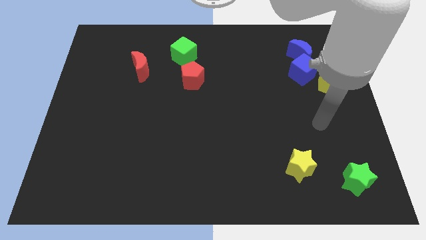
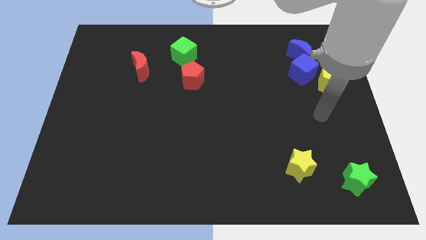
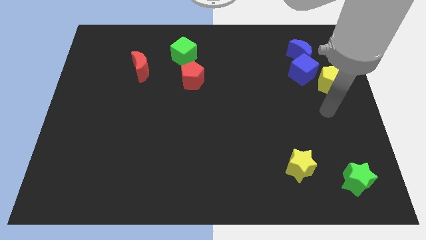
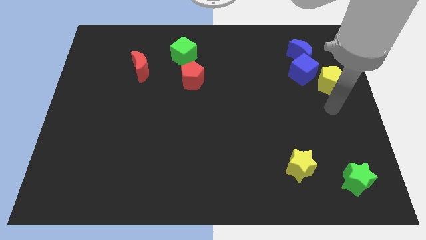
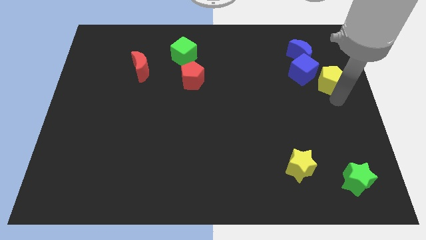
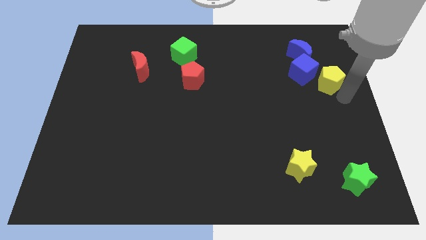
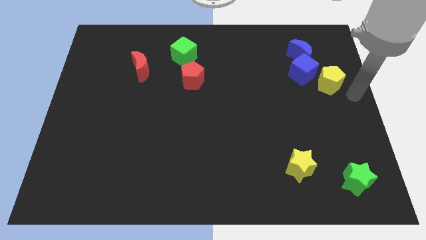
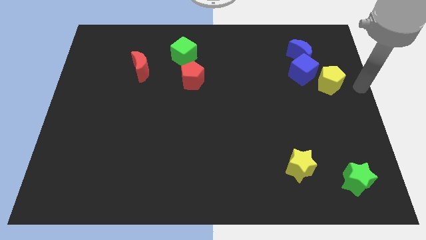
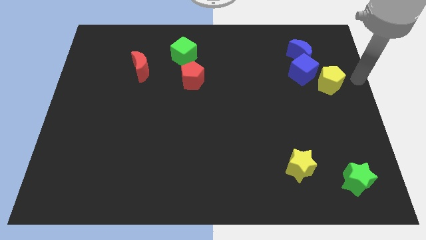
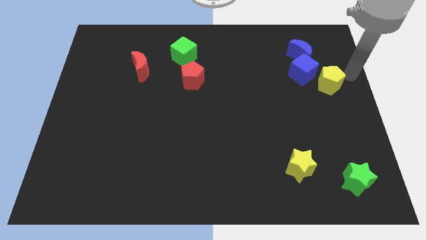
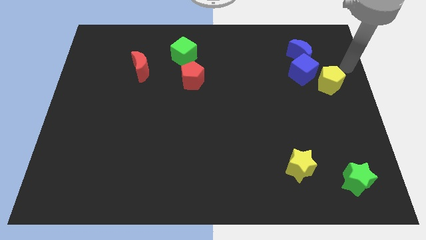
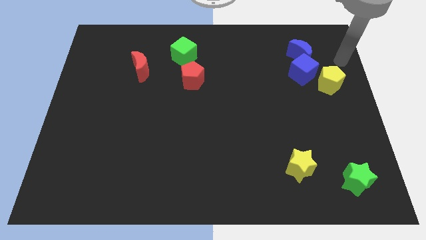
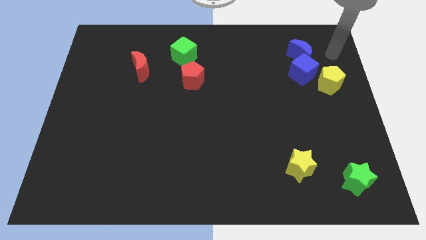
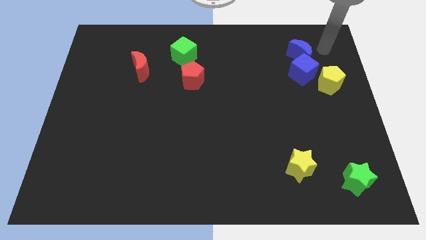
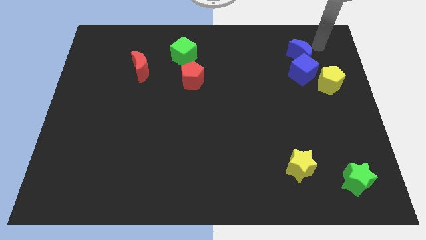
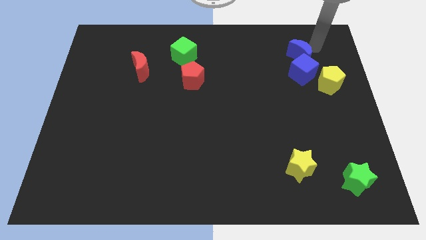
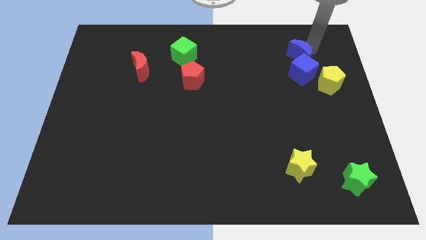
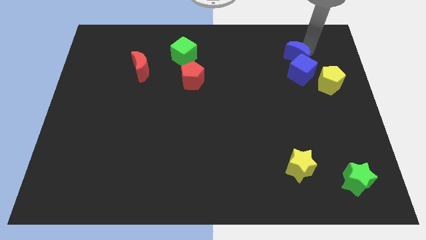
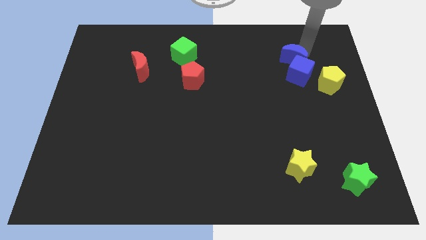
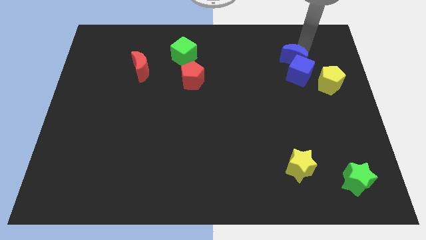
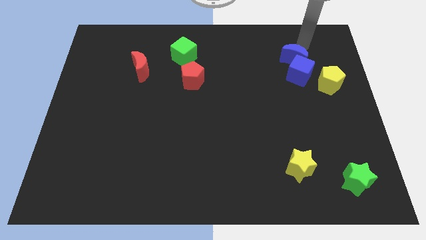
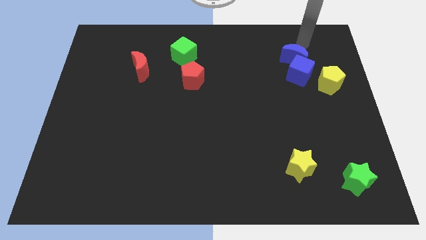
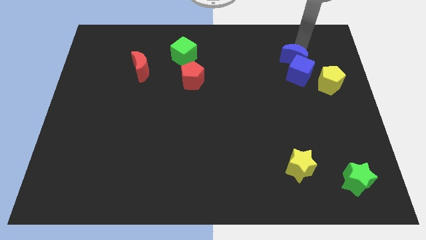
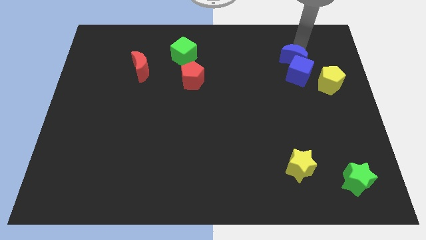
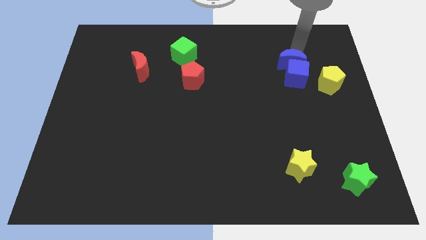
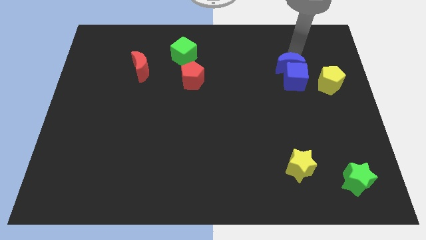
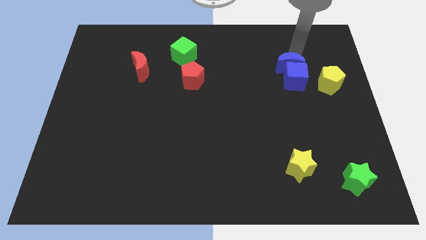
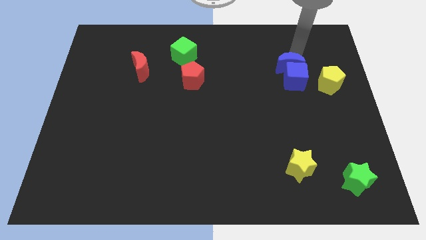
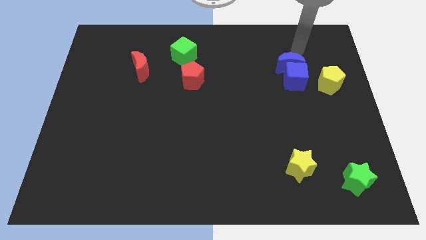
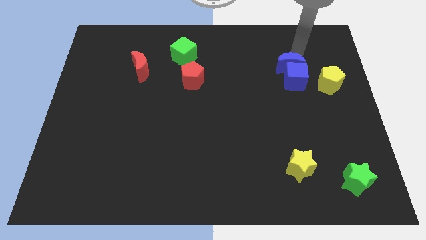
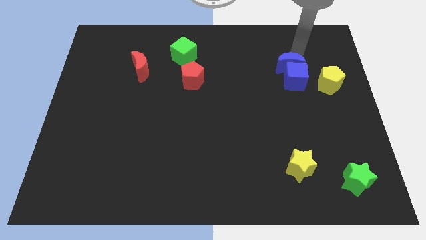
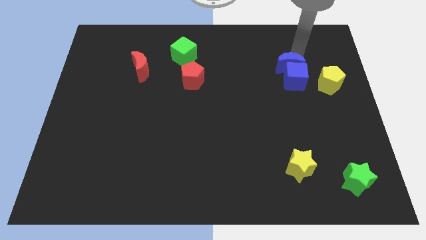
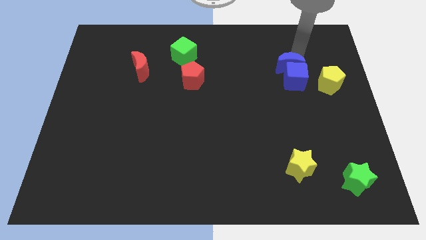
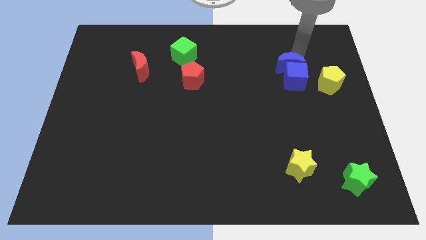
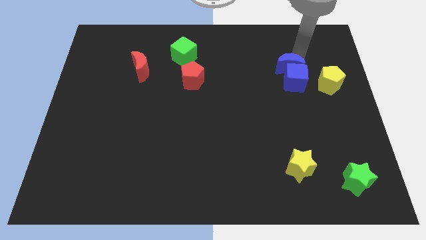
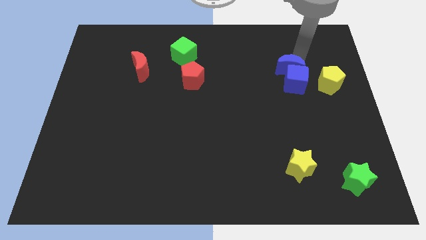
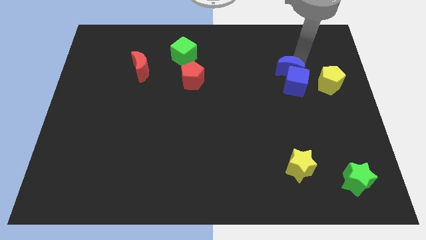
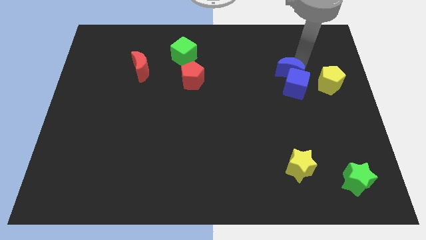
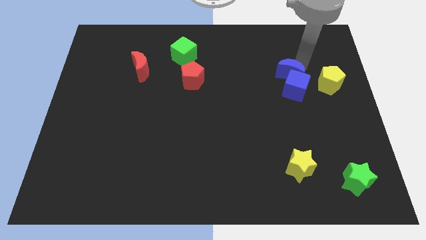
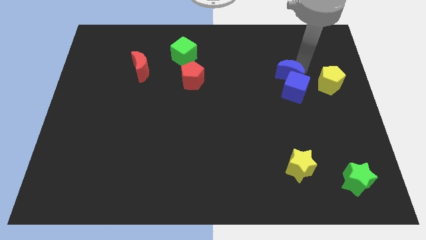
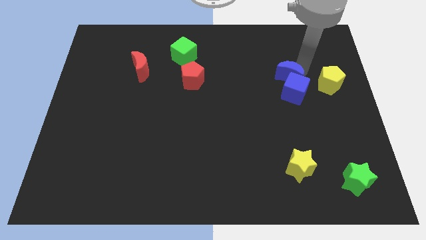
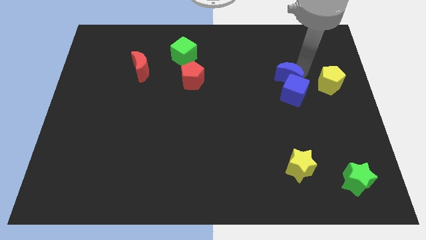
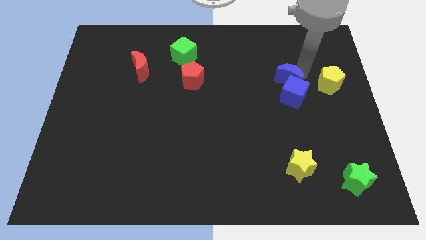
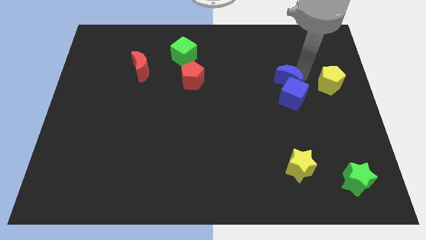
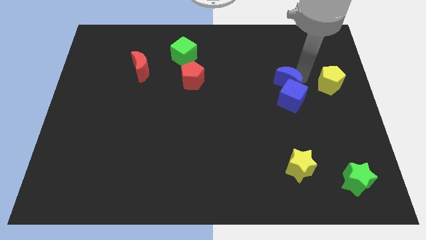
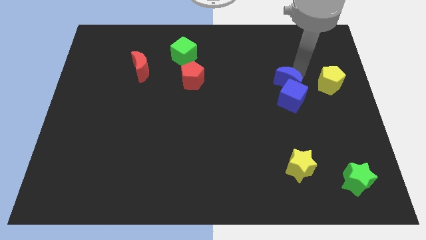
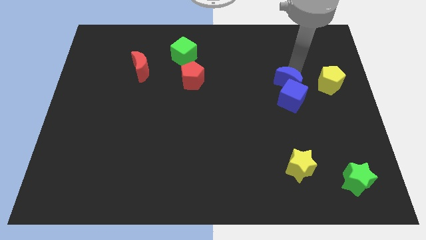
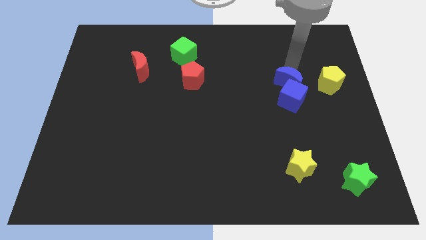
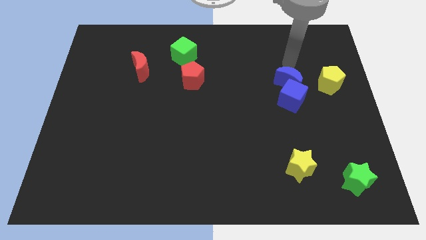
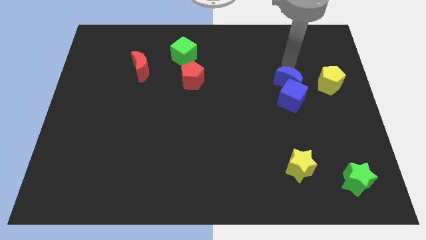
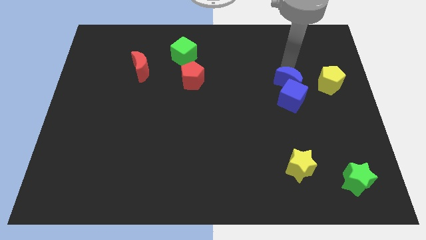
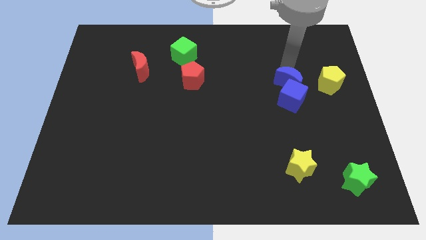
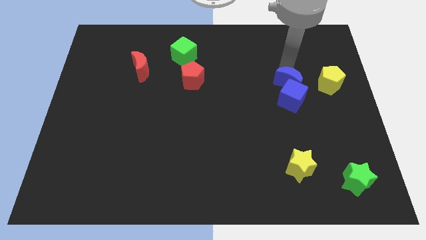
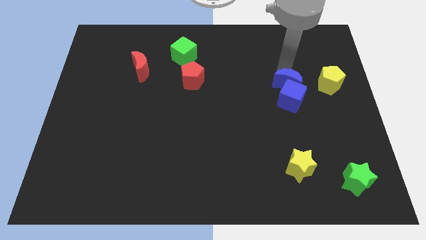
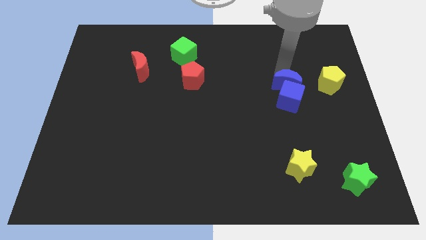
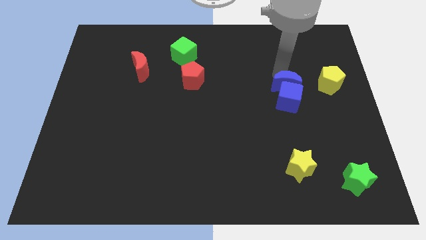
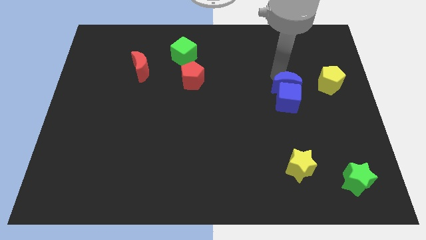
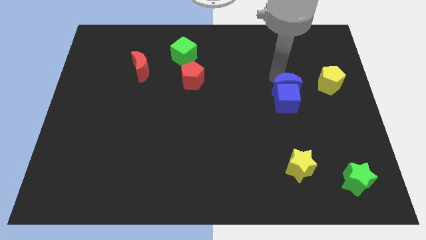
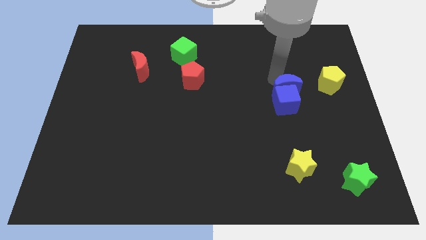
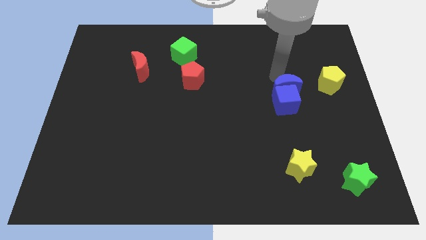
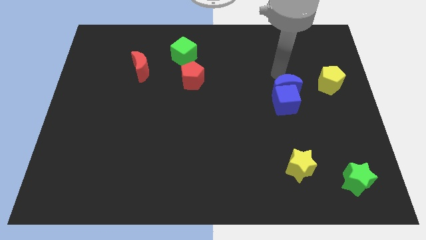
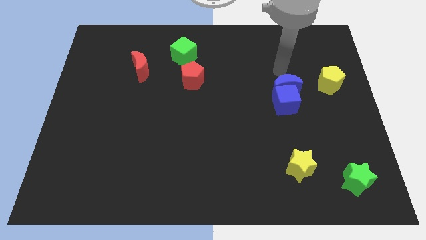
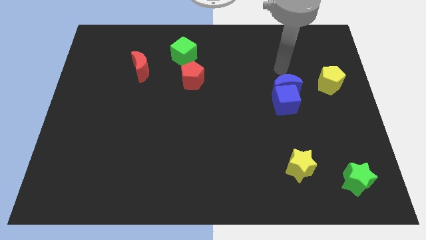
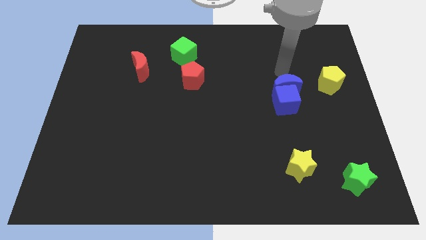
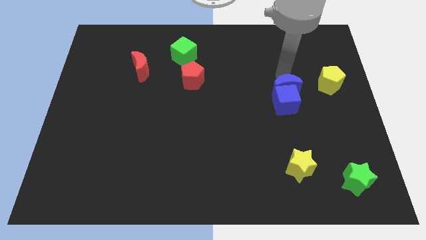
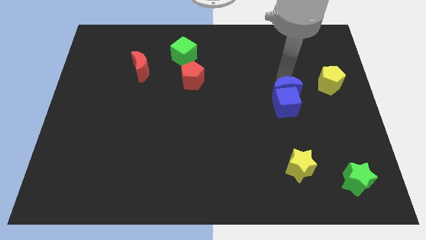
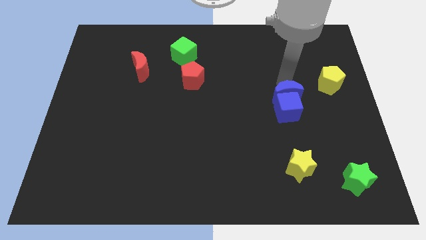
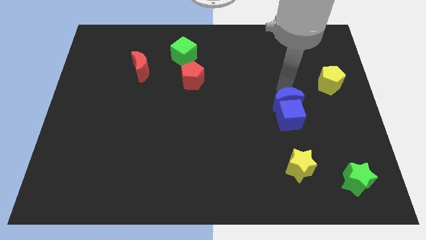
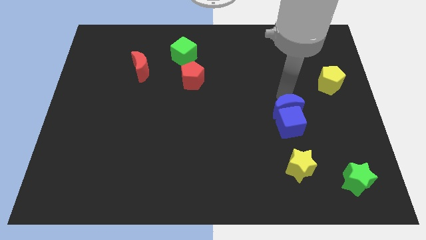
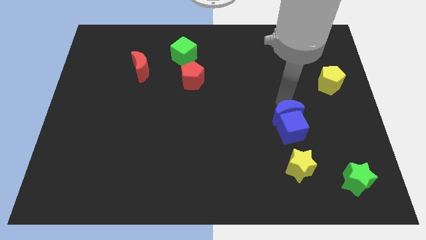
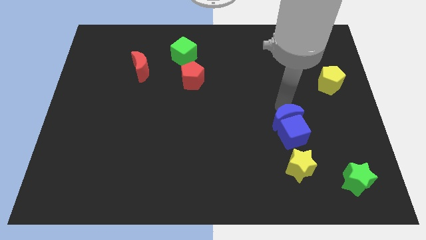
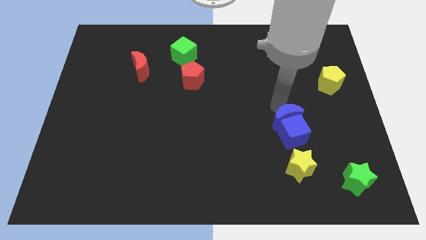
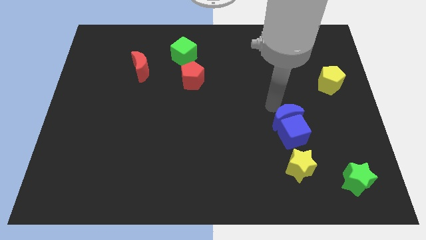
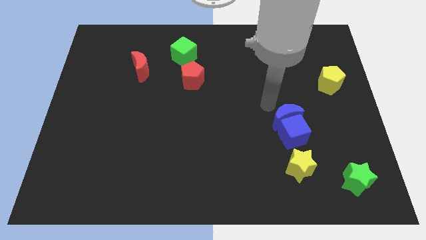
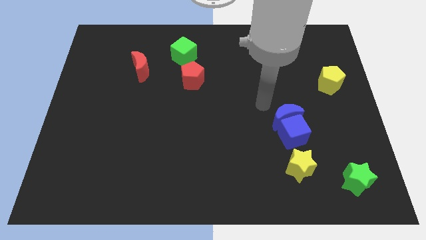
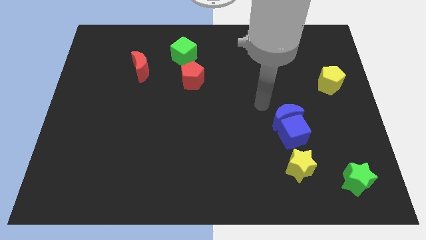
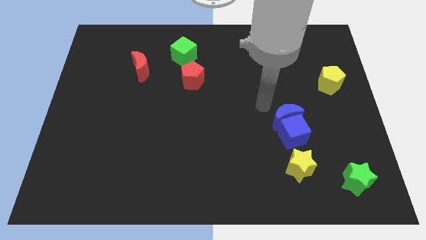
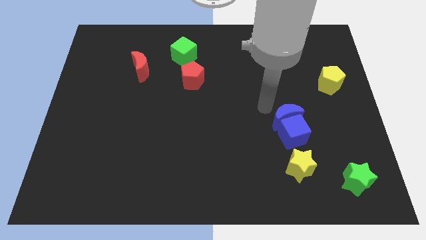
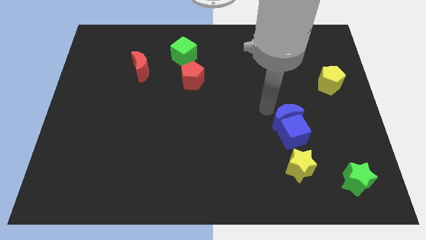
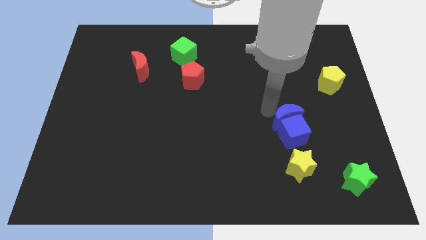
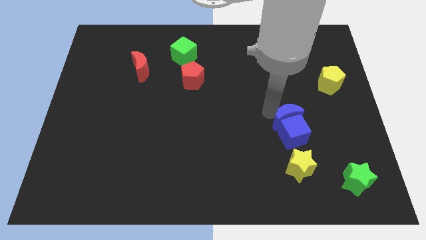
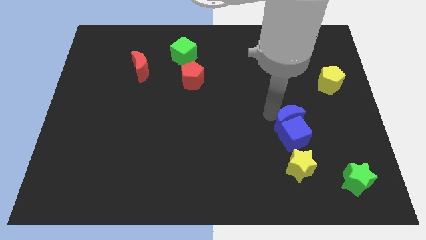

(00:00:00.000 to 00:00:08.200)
push the blue moon down
